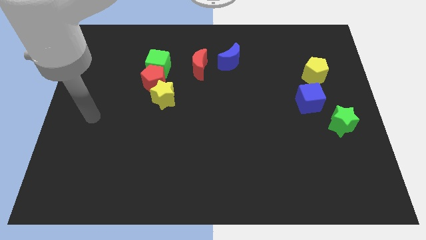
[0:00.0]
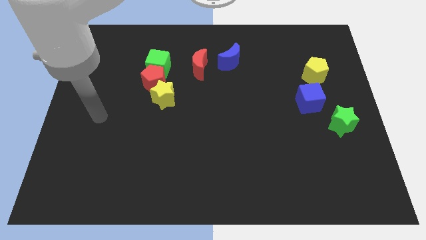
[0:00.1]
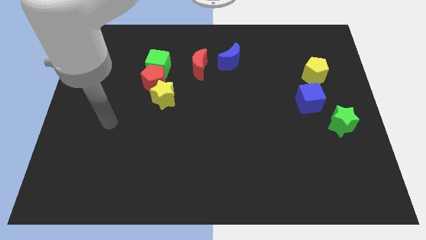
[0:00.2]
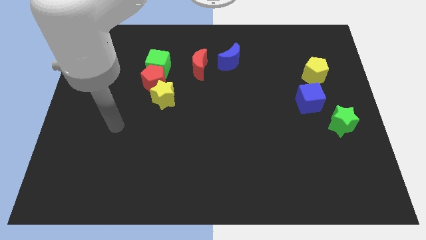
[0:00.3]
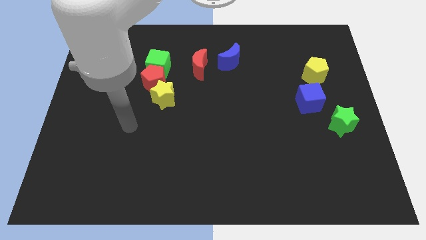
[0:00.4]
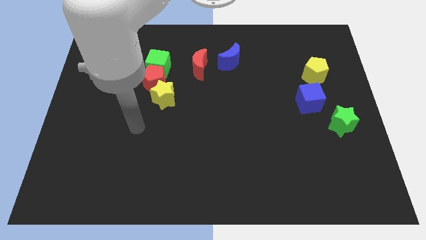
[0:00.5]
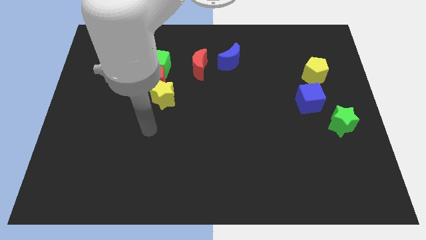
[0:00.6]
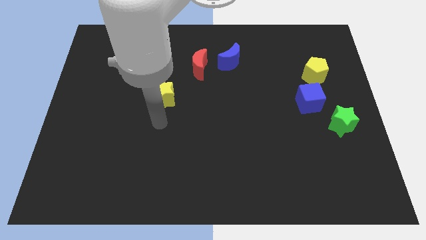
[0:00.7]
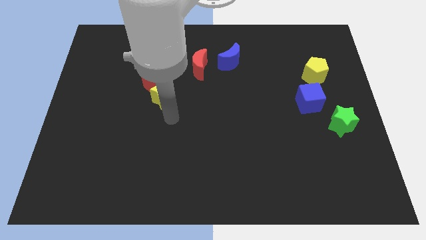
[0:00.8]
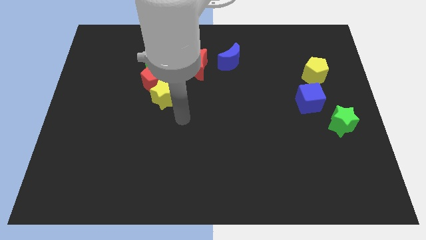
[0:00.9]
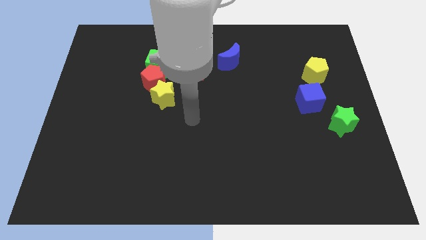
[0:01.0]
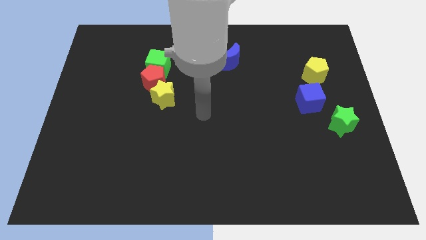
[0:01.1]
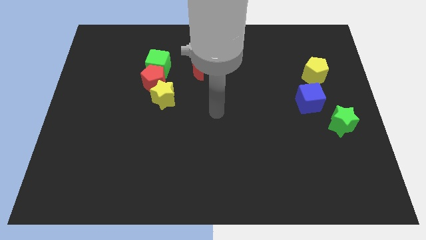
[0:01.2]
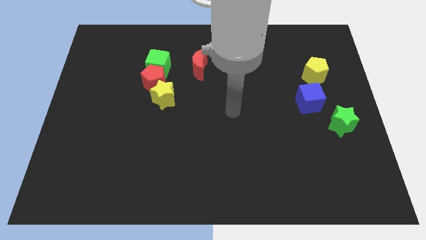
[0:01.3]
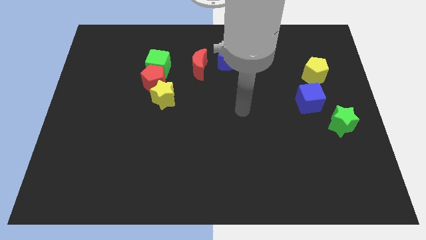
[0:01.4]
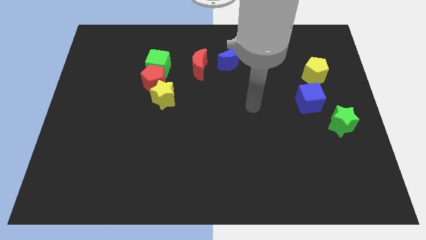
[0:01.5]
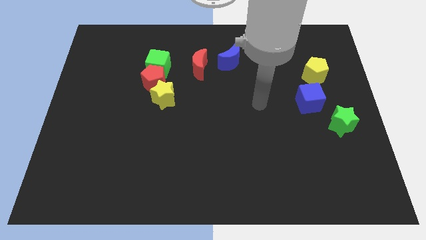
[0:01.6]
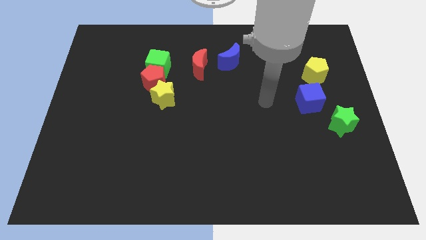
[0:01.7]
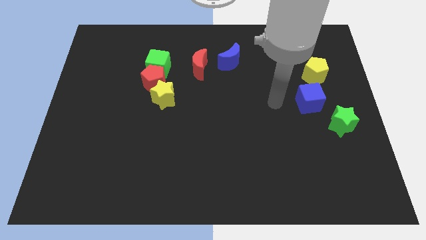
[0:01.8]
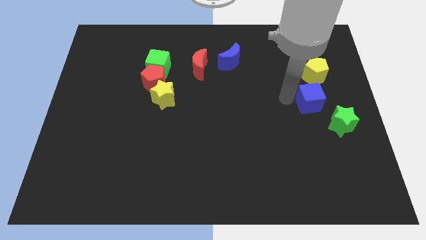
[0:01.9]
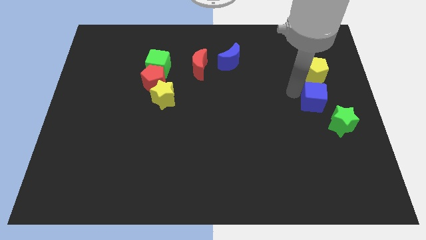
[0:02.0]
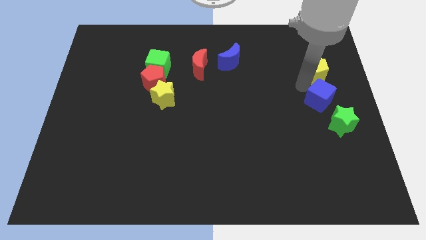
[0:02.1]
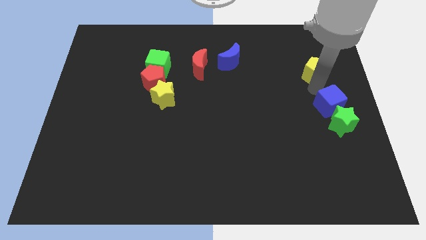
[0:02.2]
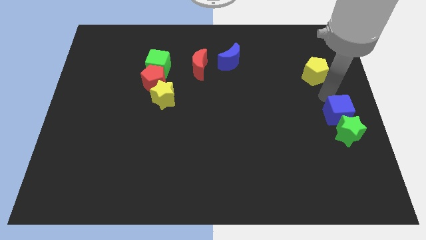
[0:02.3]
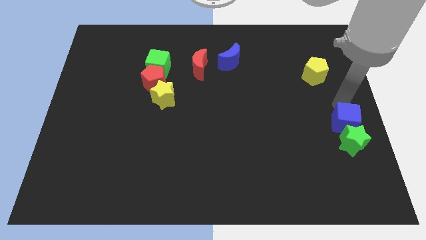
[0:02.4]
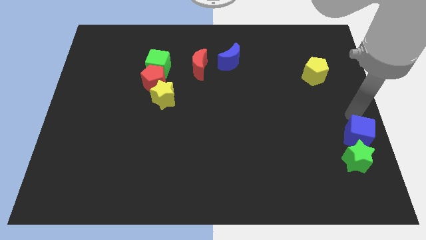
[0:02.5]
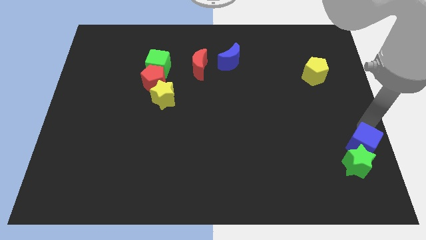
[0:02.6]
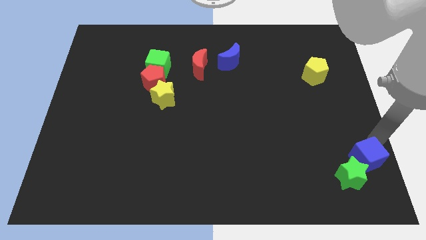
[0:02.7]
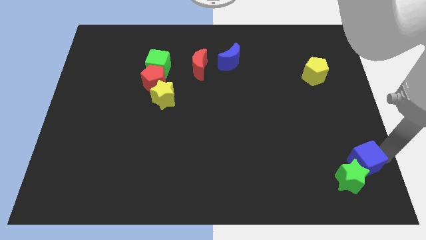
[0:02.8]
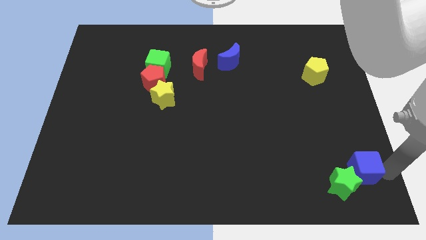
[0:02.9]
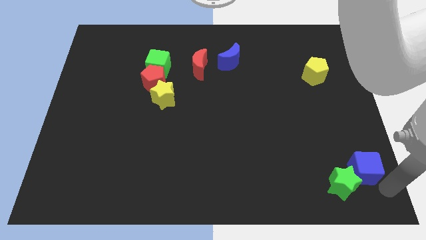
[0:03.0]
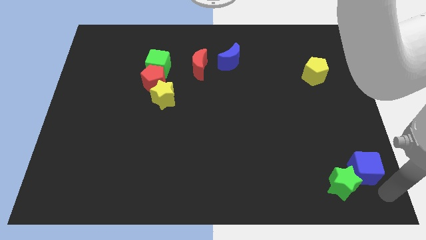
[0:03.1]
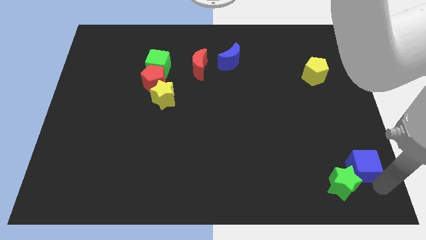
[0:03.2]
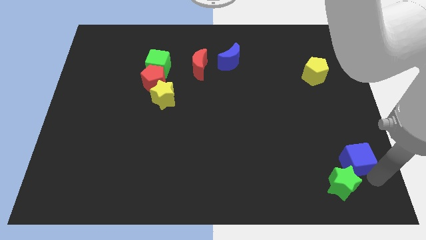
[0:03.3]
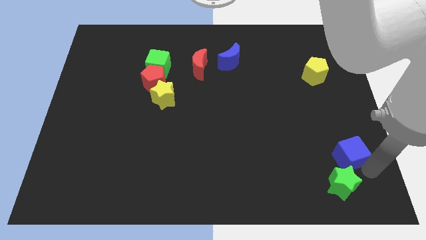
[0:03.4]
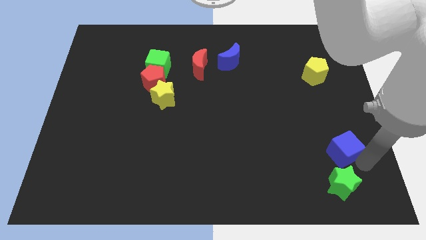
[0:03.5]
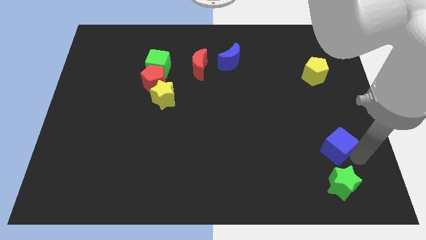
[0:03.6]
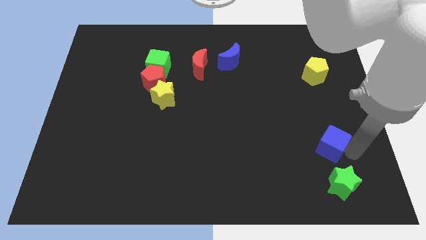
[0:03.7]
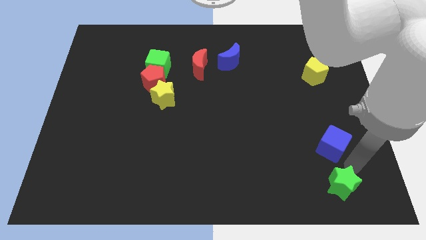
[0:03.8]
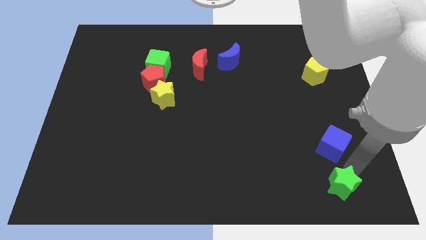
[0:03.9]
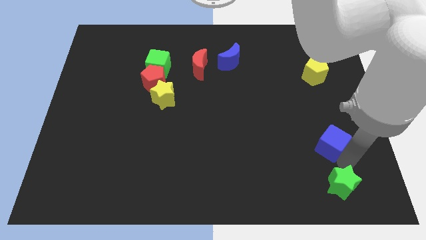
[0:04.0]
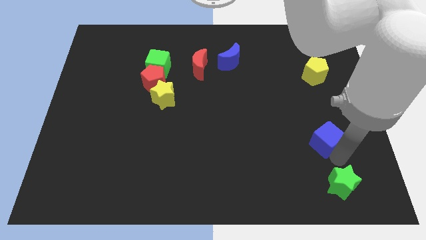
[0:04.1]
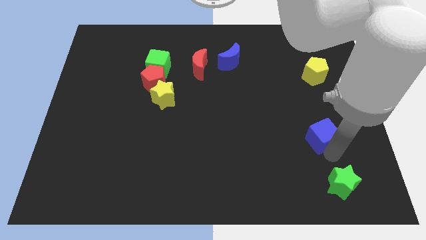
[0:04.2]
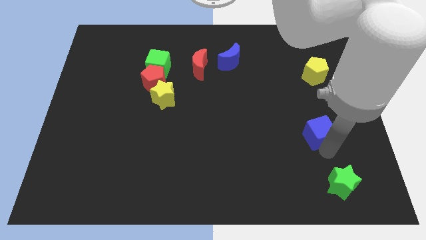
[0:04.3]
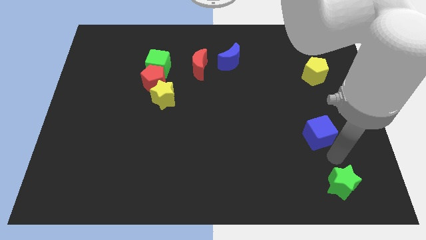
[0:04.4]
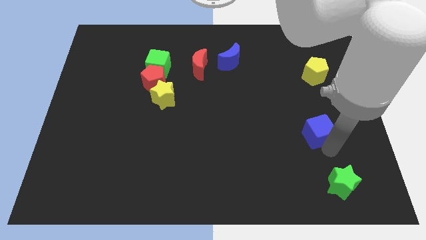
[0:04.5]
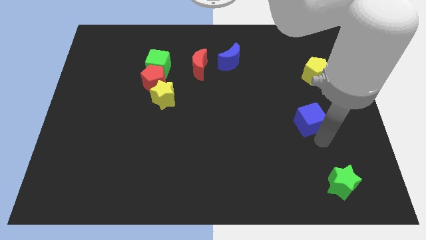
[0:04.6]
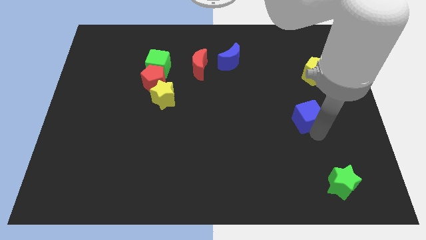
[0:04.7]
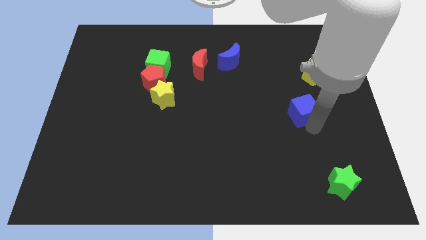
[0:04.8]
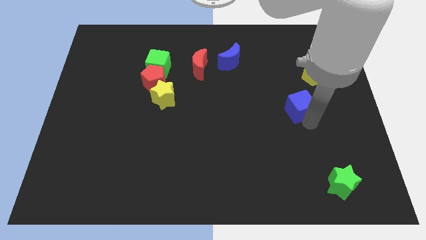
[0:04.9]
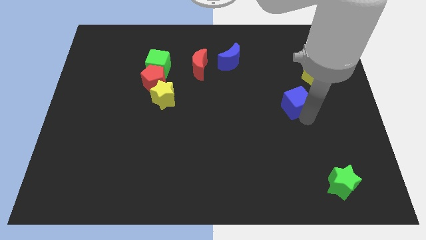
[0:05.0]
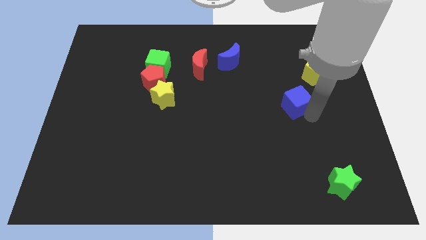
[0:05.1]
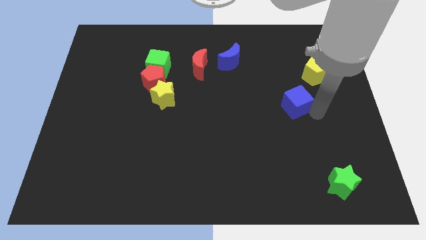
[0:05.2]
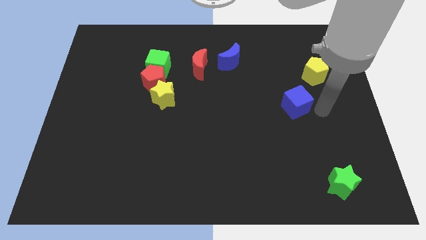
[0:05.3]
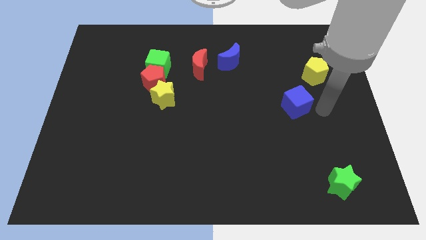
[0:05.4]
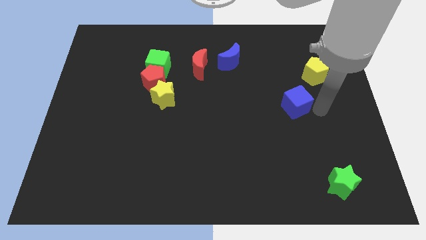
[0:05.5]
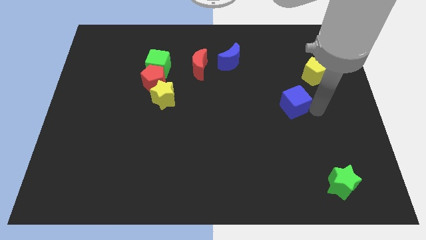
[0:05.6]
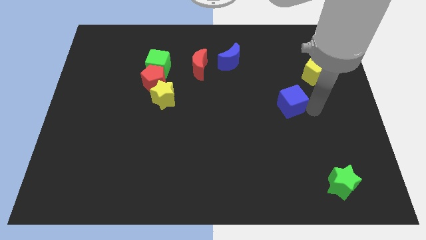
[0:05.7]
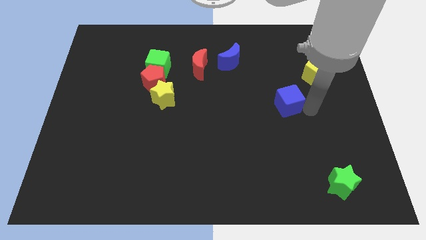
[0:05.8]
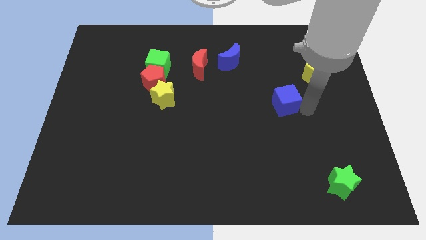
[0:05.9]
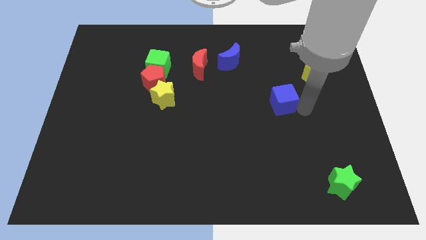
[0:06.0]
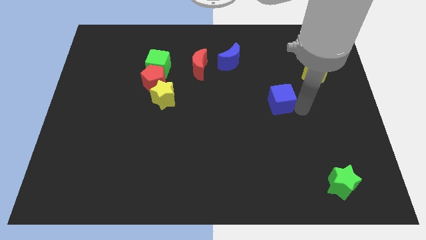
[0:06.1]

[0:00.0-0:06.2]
slightly move the blue cube left

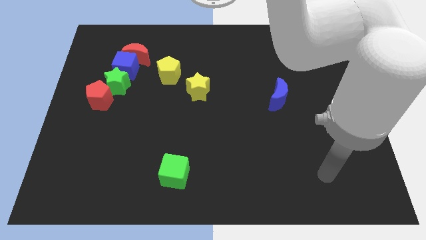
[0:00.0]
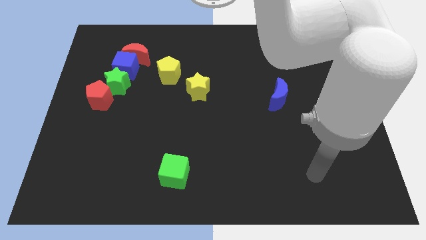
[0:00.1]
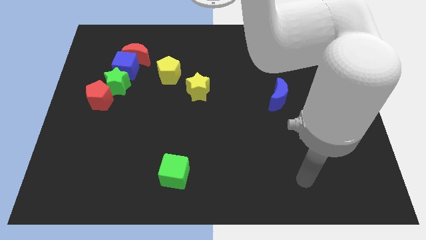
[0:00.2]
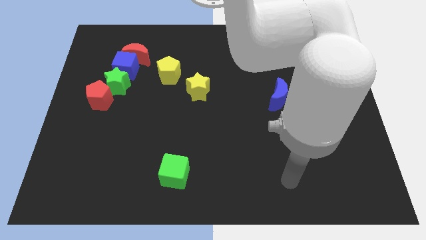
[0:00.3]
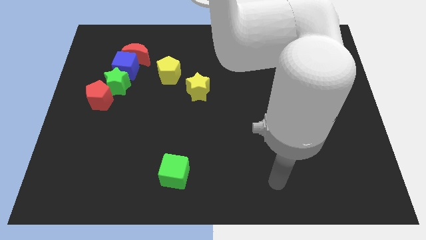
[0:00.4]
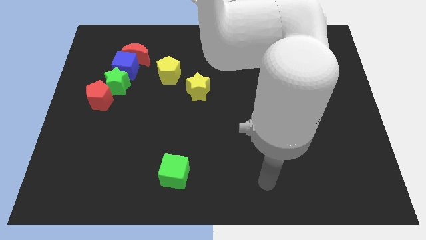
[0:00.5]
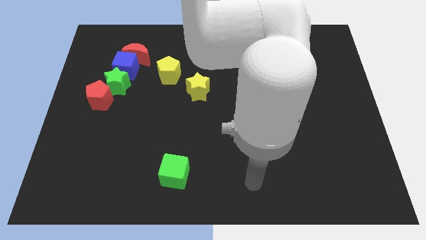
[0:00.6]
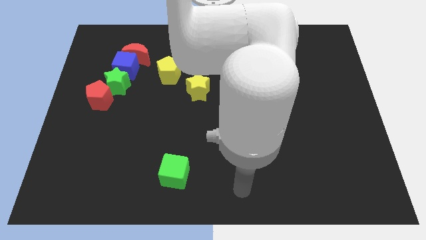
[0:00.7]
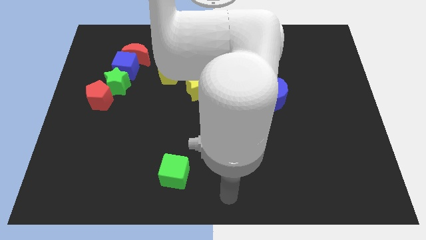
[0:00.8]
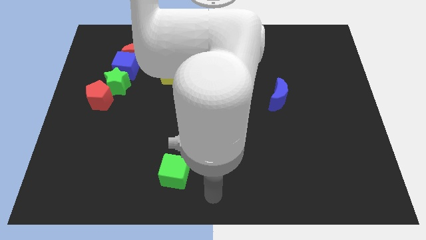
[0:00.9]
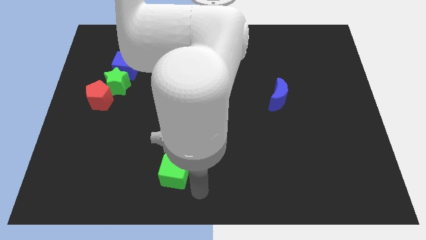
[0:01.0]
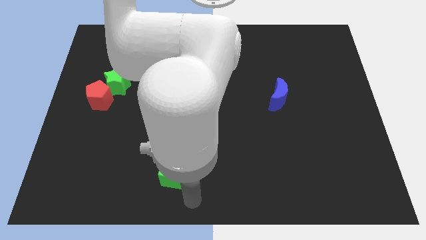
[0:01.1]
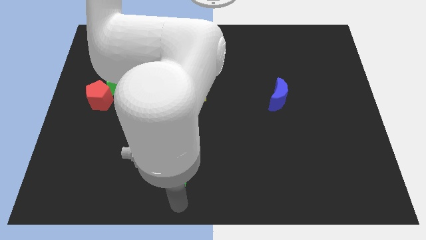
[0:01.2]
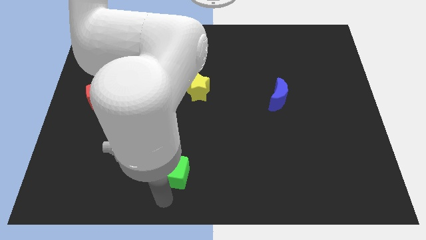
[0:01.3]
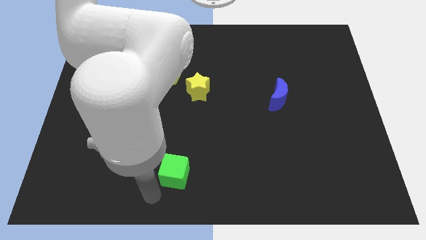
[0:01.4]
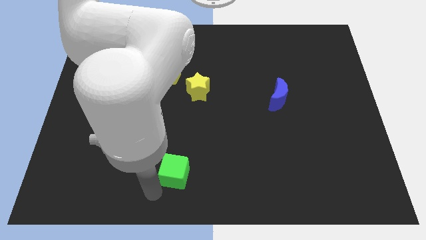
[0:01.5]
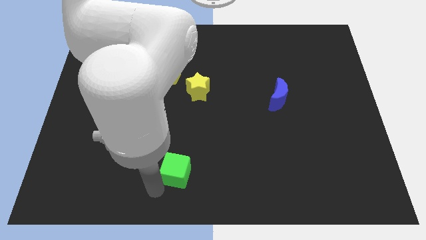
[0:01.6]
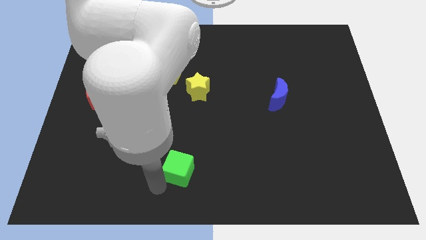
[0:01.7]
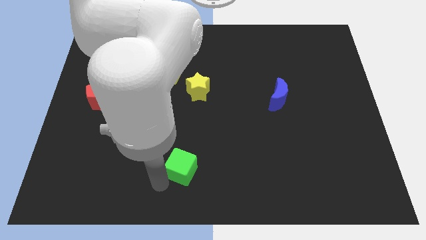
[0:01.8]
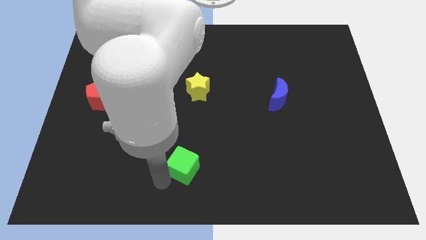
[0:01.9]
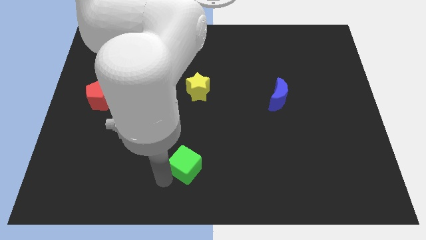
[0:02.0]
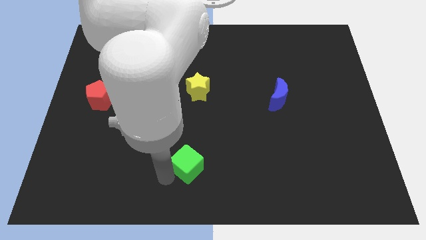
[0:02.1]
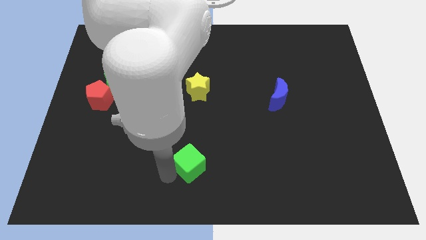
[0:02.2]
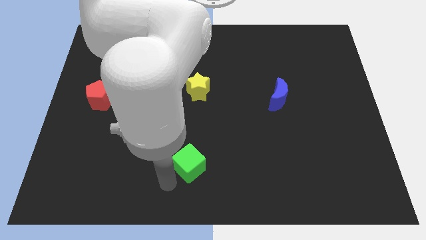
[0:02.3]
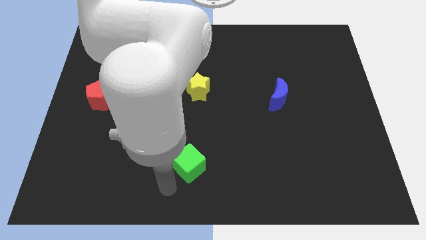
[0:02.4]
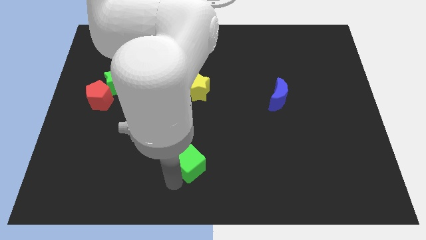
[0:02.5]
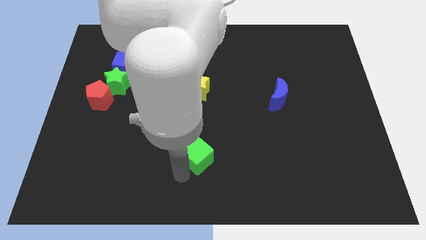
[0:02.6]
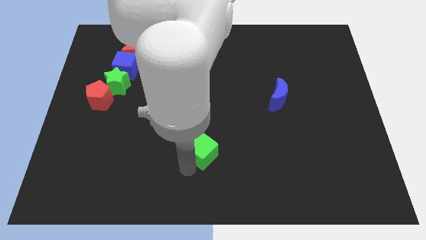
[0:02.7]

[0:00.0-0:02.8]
push the green cube somewhat up and then to the right
